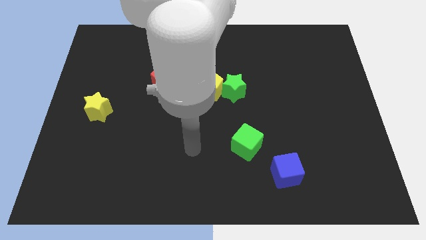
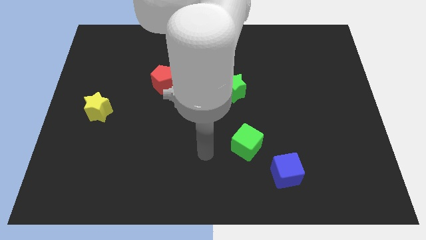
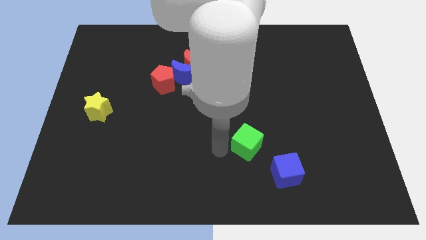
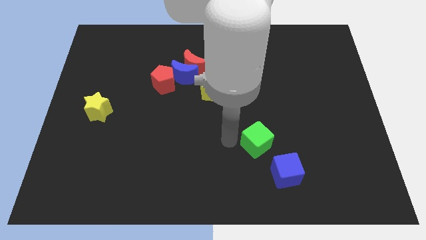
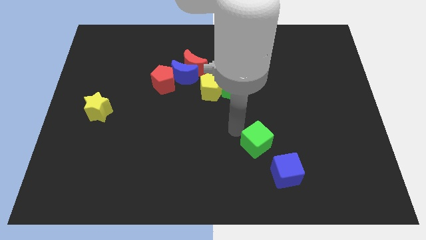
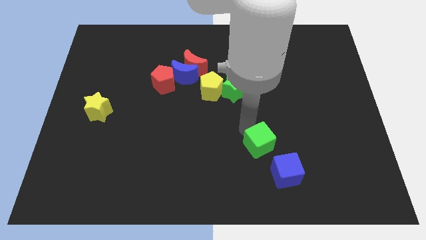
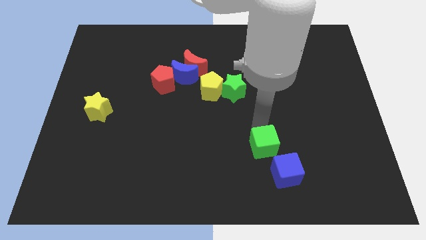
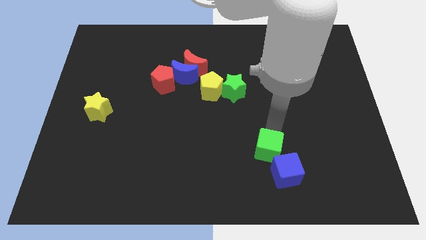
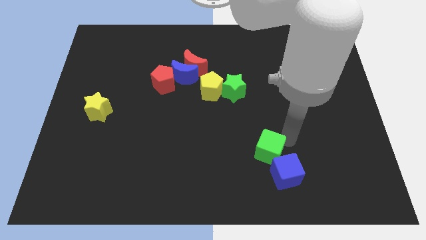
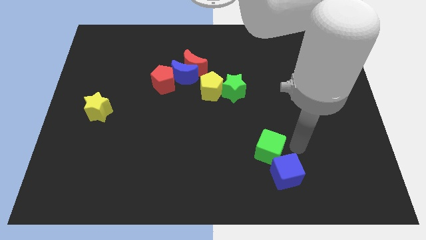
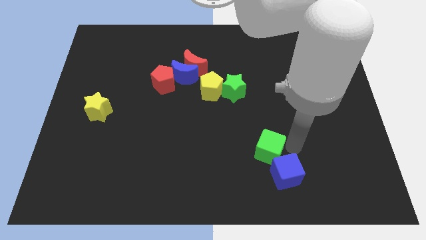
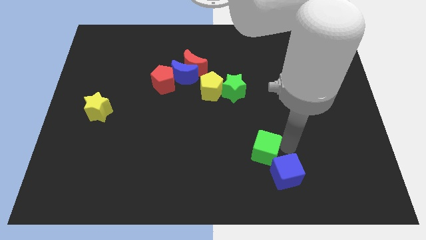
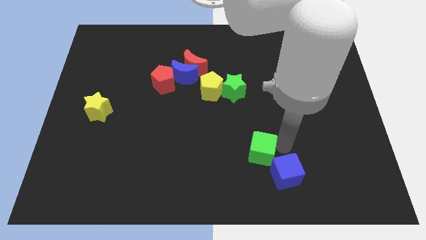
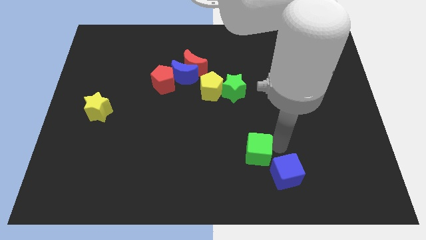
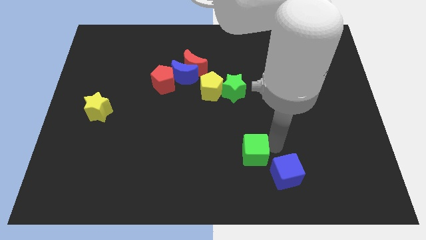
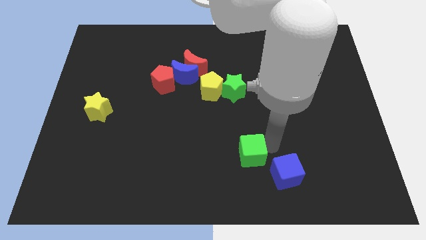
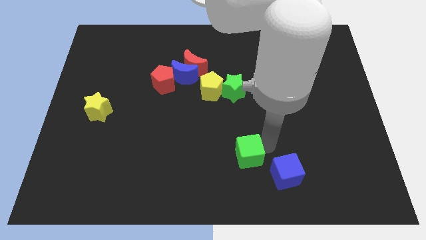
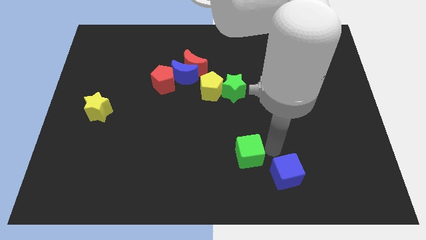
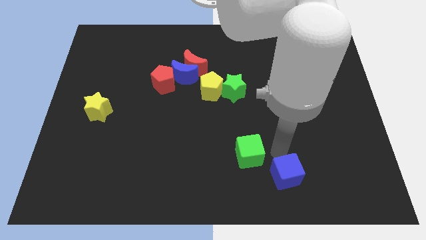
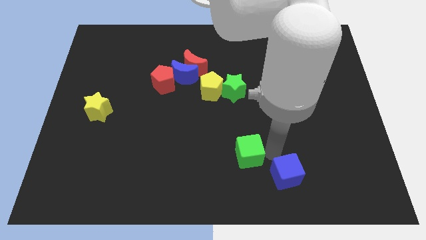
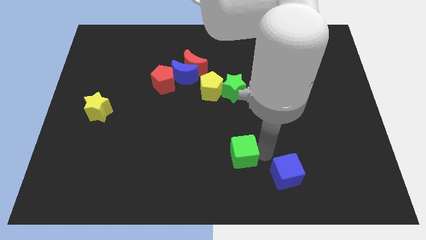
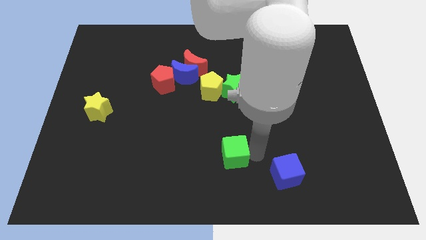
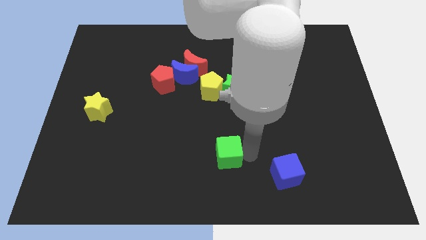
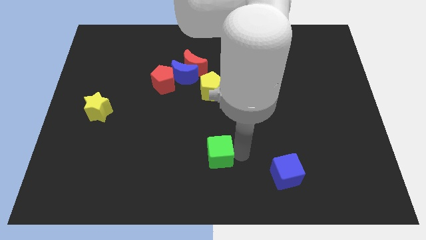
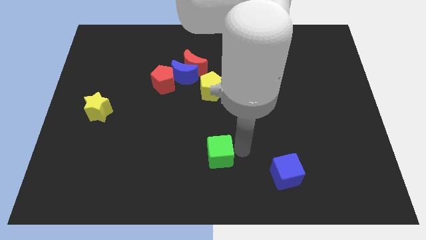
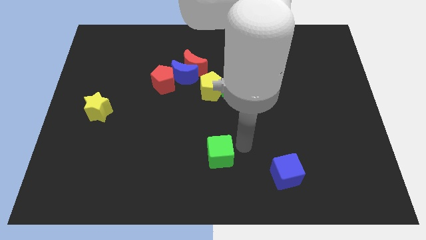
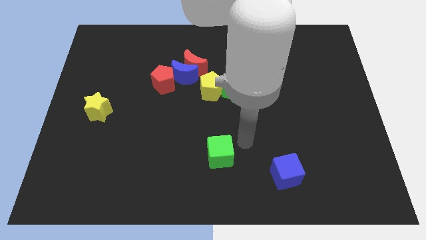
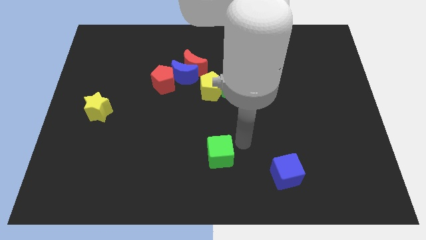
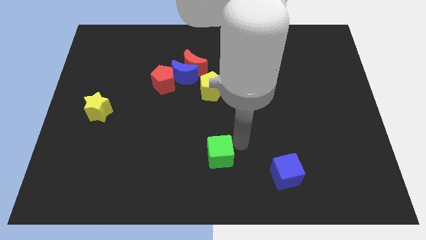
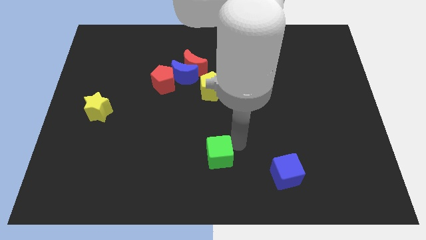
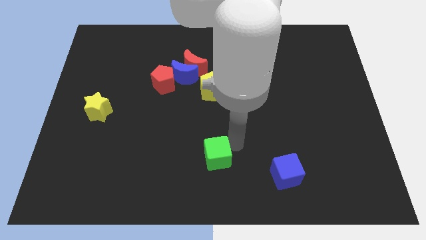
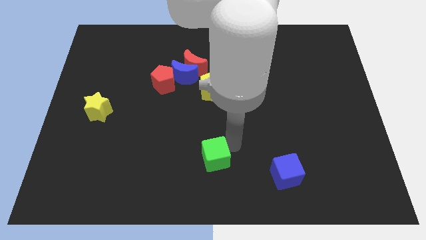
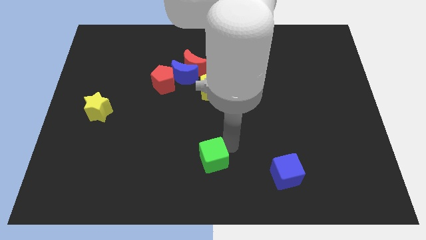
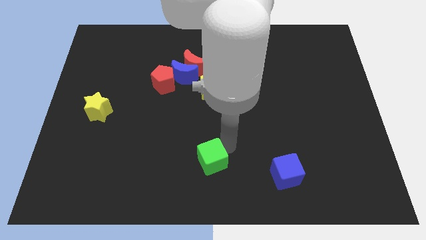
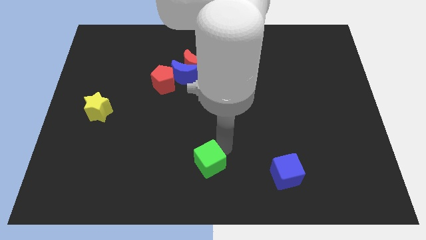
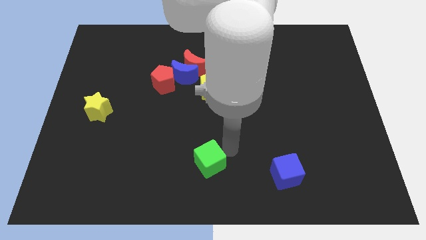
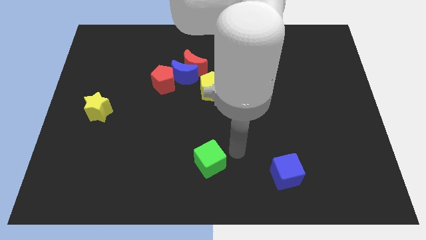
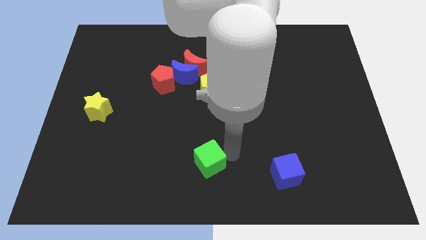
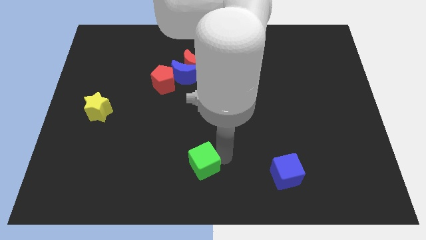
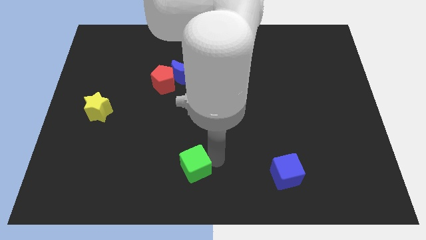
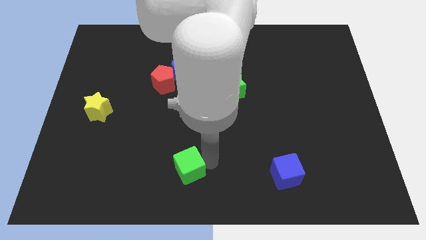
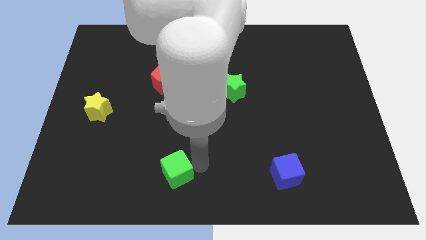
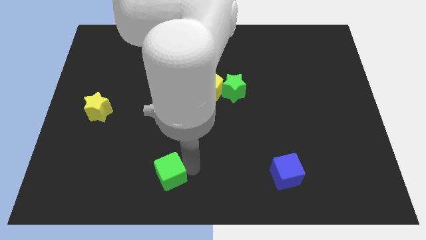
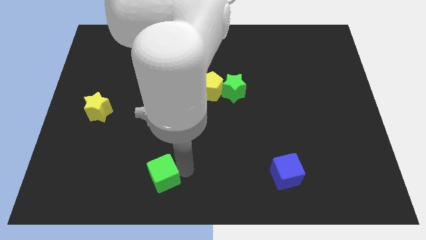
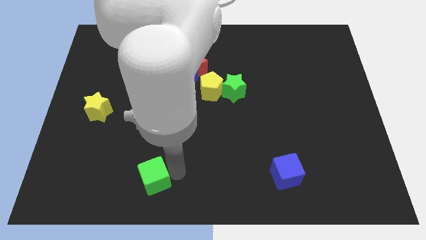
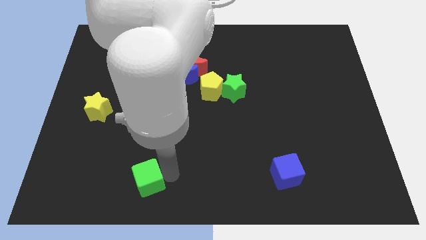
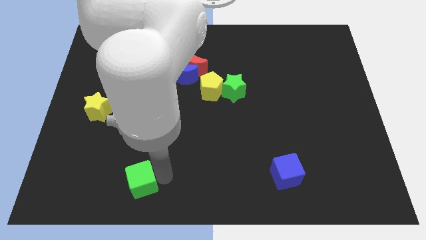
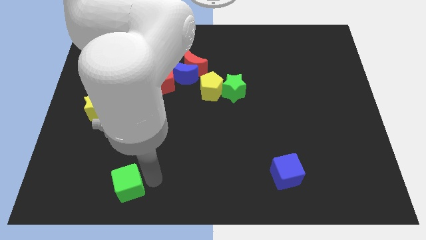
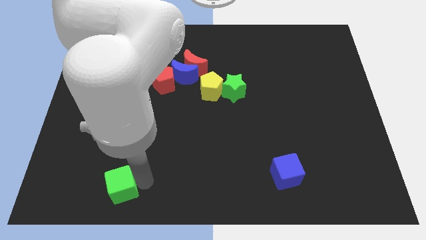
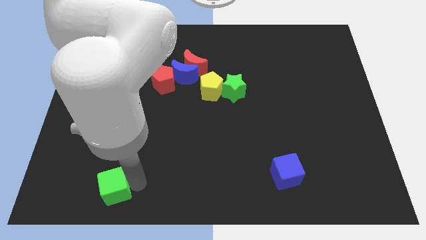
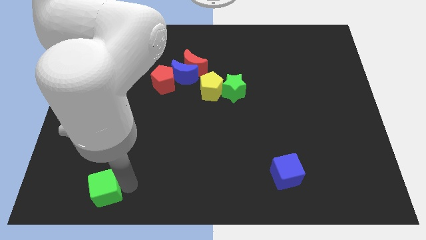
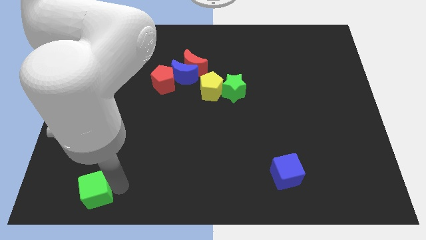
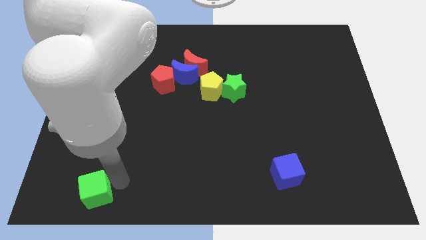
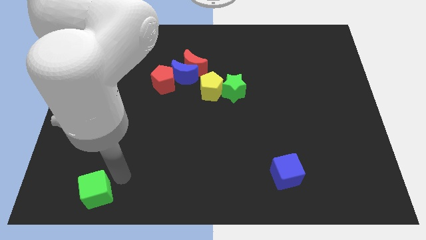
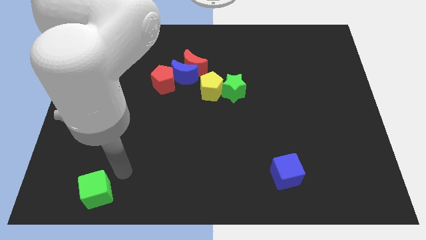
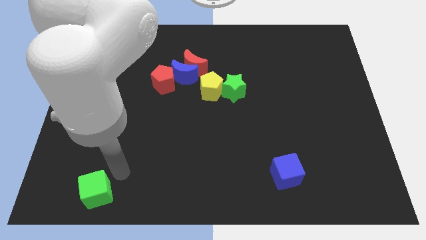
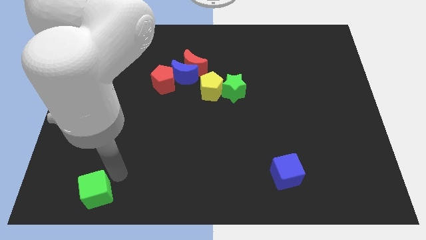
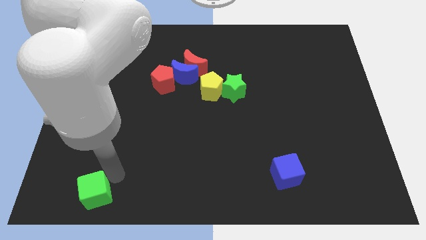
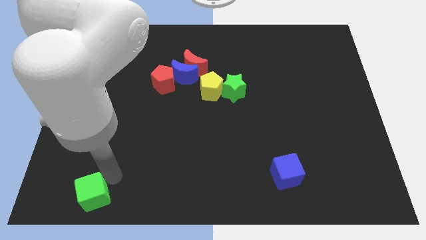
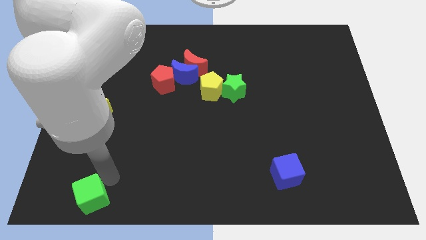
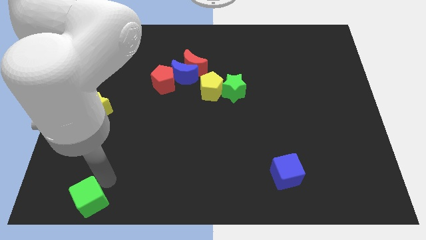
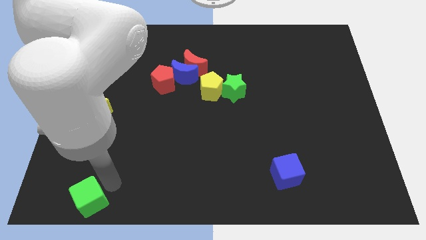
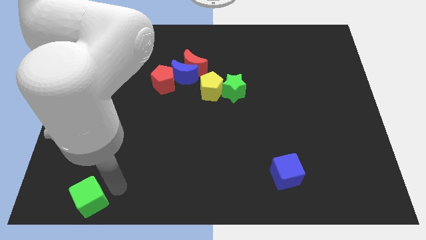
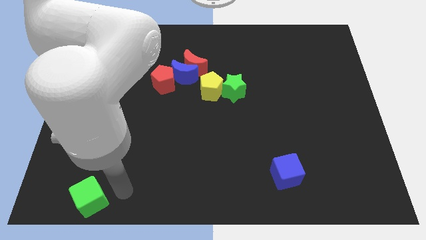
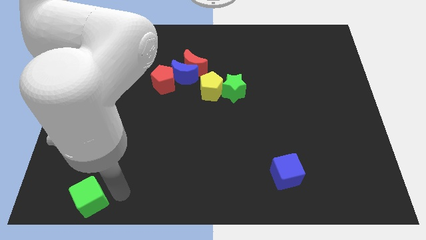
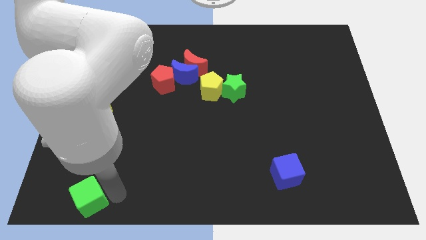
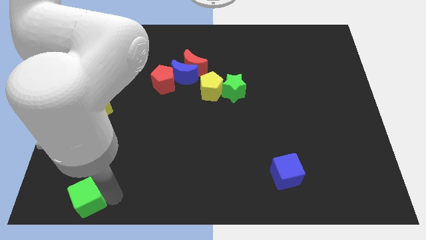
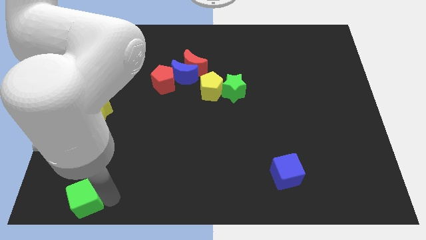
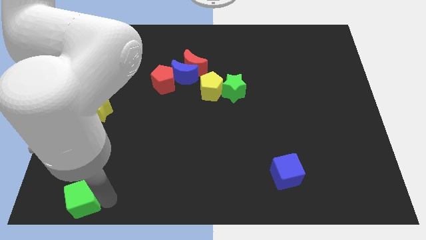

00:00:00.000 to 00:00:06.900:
slide the green cube to the bottom left
